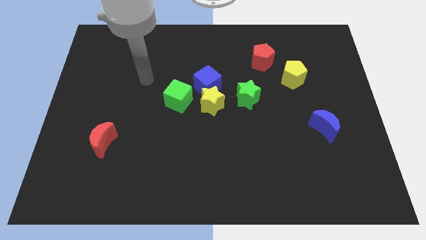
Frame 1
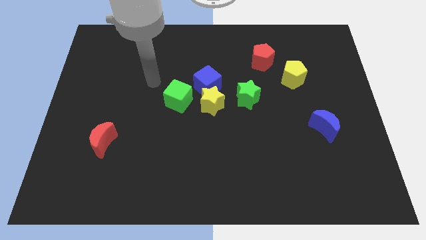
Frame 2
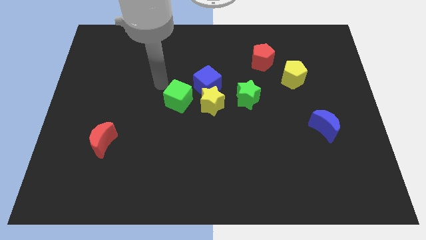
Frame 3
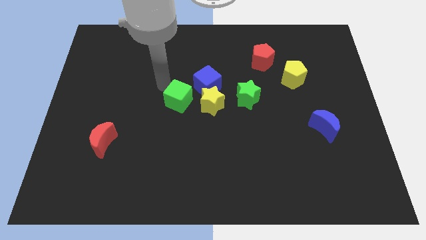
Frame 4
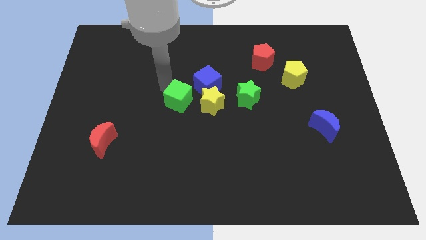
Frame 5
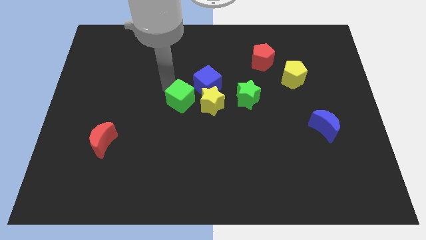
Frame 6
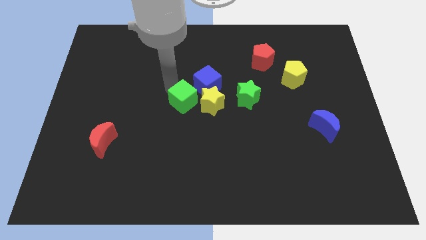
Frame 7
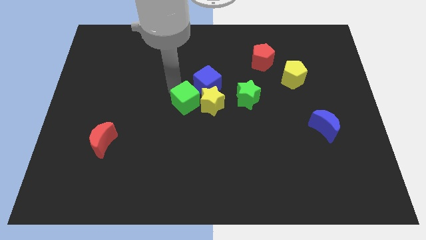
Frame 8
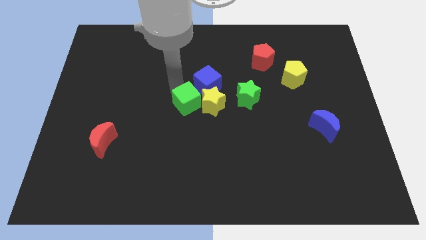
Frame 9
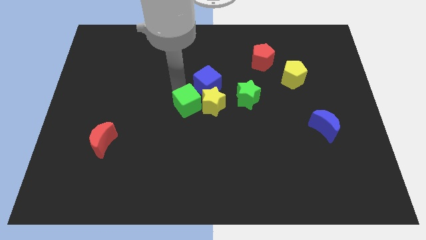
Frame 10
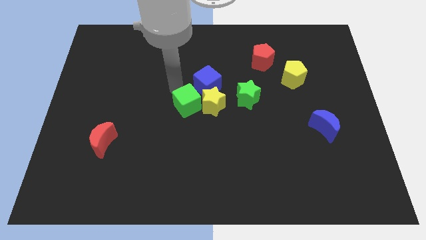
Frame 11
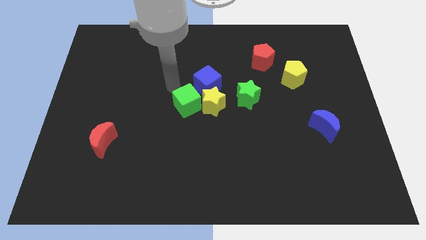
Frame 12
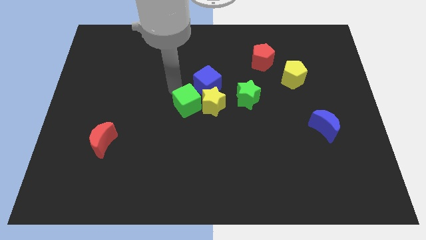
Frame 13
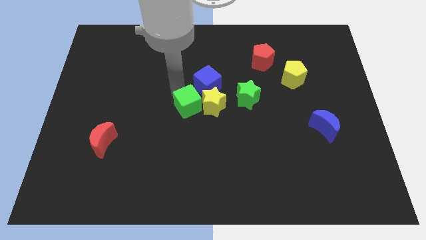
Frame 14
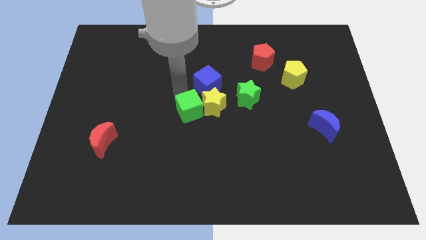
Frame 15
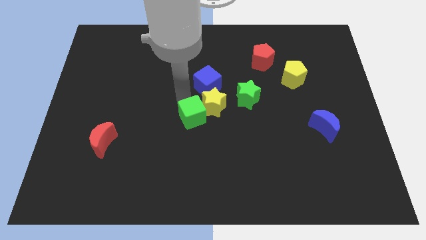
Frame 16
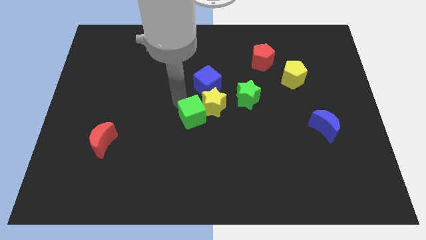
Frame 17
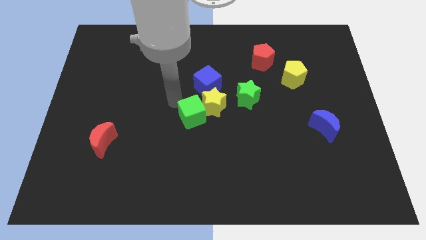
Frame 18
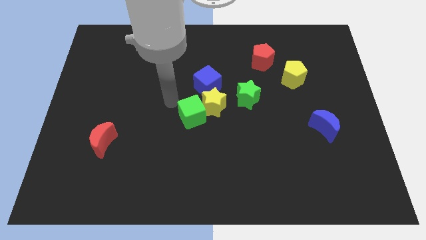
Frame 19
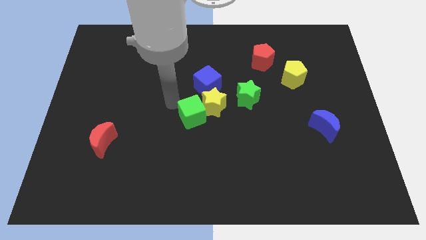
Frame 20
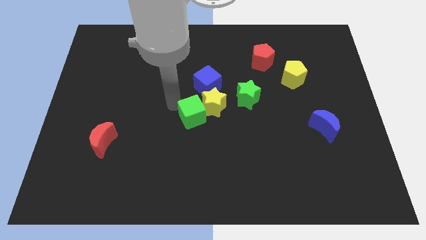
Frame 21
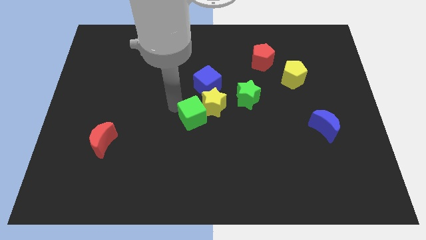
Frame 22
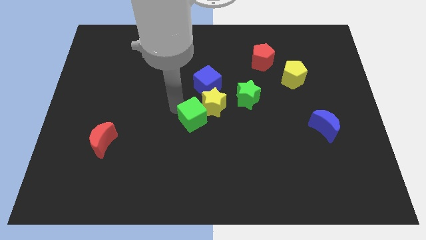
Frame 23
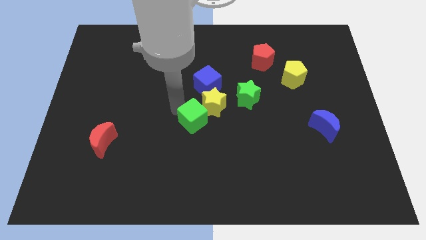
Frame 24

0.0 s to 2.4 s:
slightly move the green cube down and then right

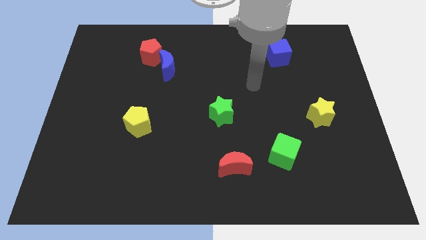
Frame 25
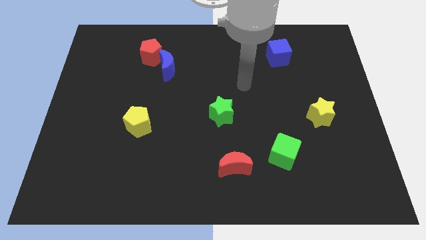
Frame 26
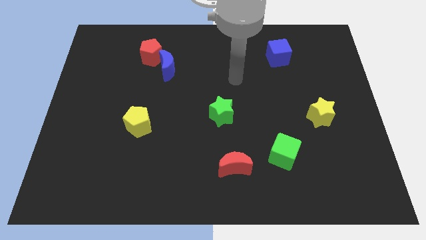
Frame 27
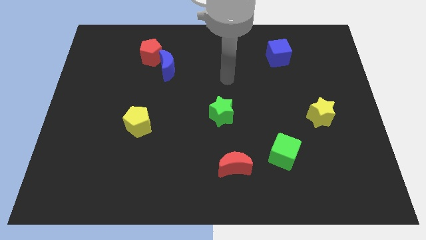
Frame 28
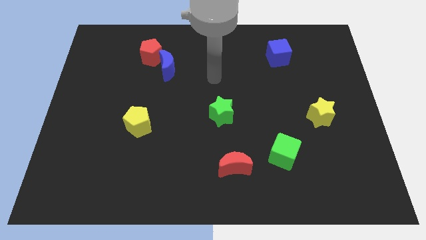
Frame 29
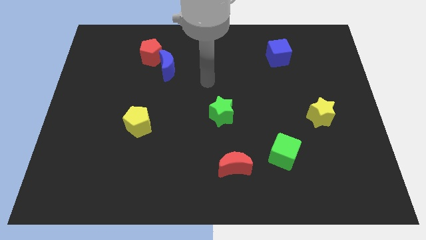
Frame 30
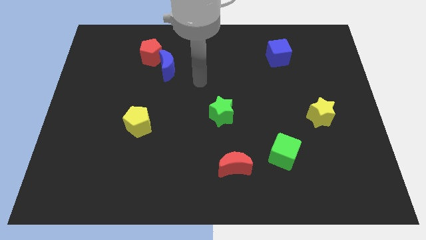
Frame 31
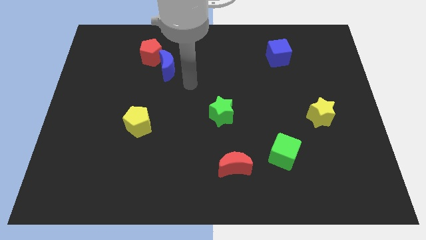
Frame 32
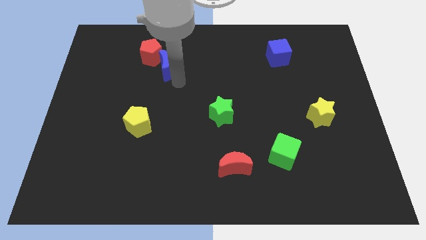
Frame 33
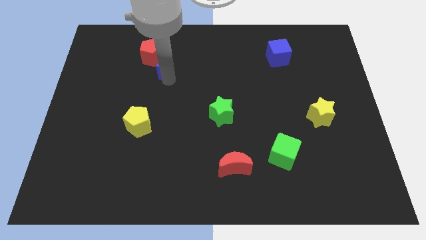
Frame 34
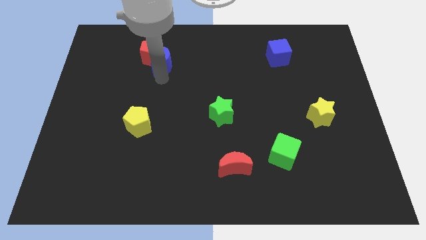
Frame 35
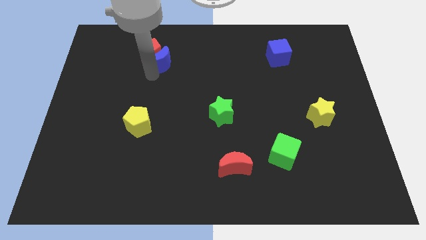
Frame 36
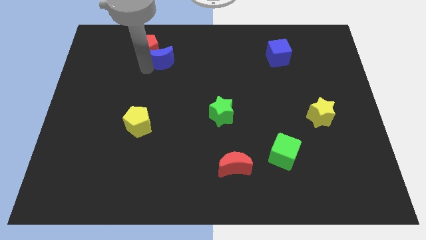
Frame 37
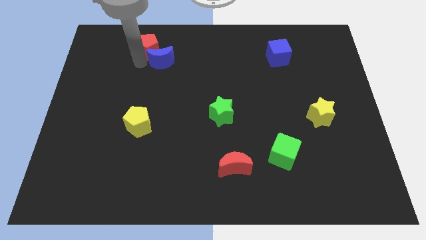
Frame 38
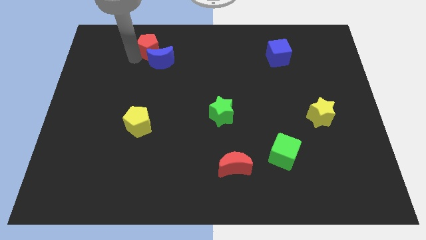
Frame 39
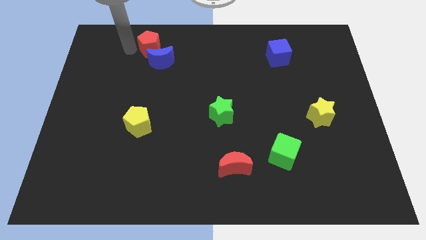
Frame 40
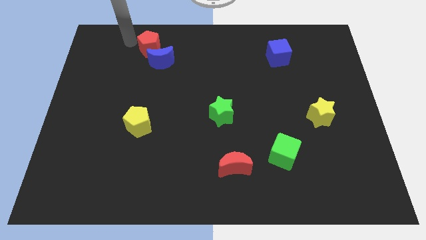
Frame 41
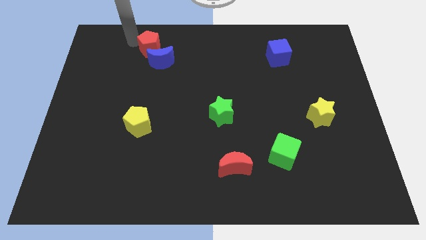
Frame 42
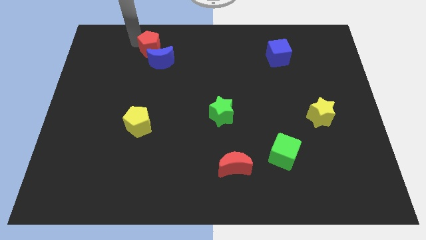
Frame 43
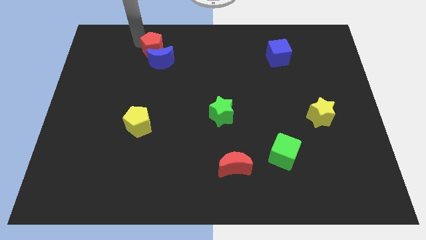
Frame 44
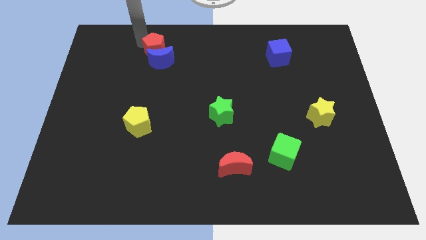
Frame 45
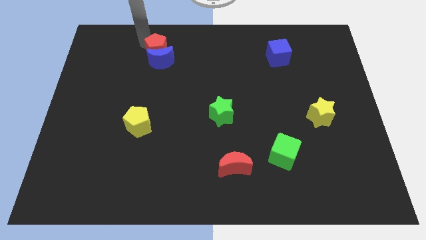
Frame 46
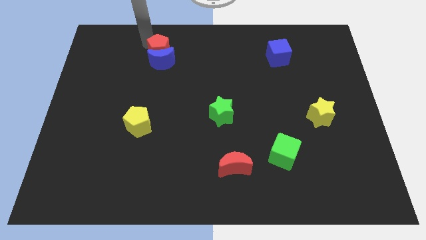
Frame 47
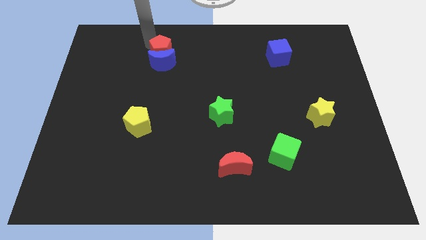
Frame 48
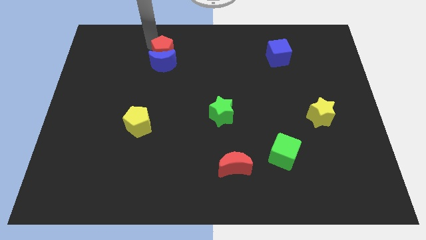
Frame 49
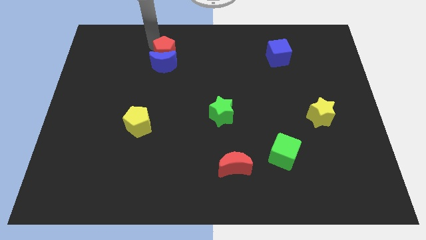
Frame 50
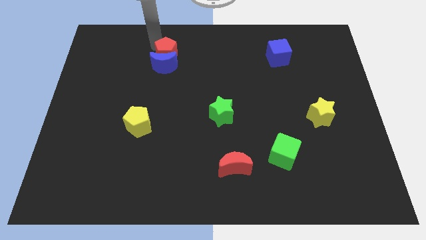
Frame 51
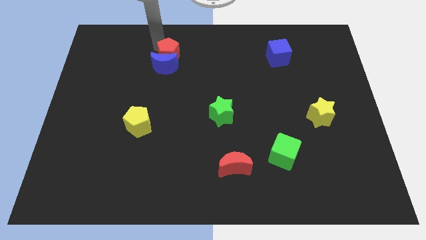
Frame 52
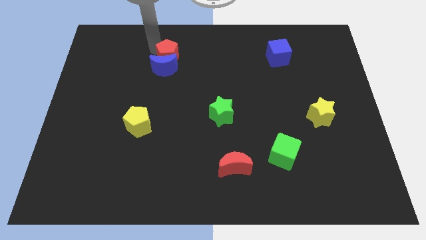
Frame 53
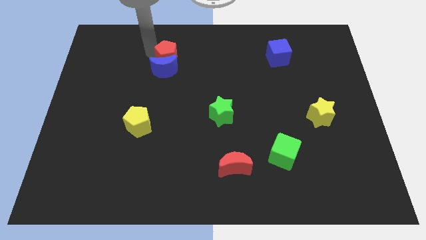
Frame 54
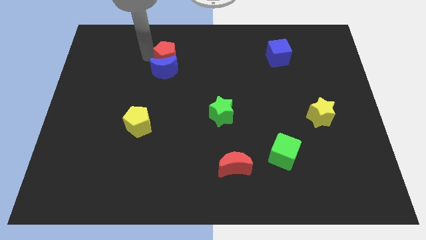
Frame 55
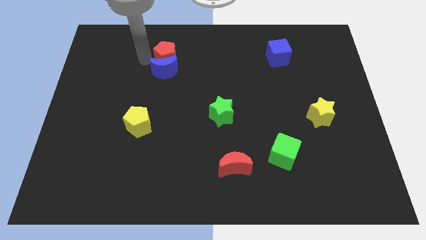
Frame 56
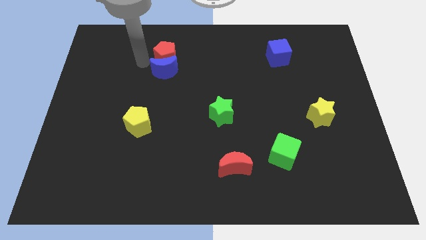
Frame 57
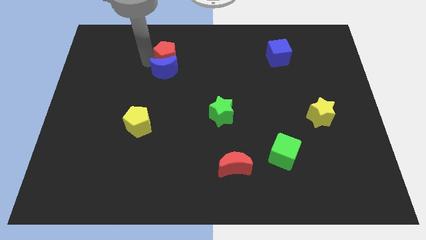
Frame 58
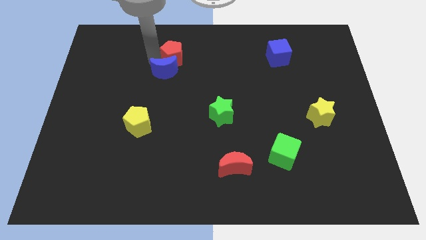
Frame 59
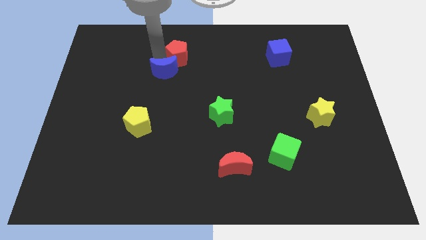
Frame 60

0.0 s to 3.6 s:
push the red pentagon somewhat right

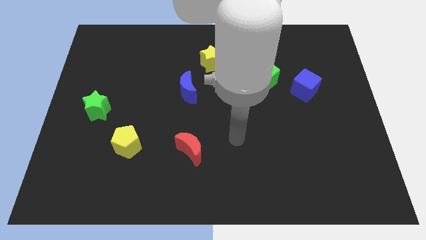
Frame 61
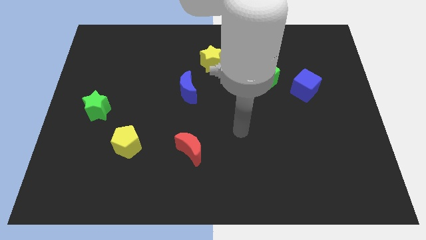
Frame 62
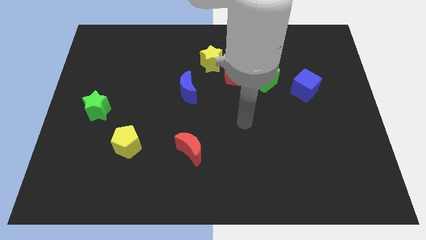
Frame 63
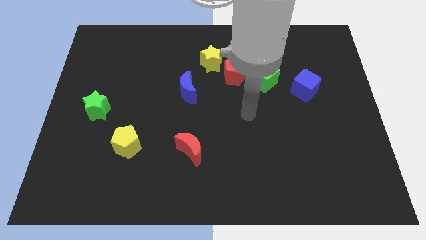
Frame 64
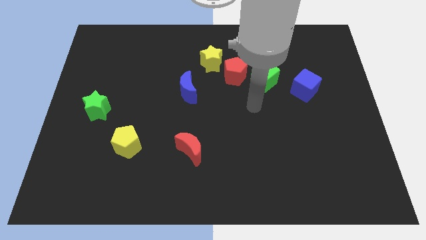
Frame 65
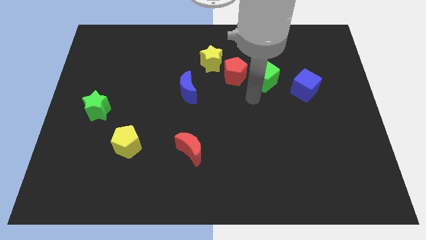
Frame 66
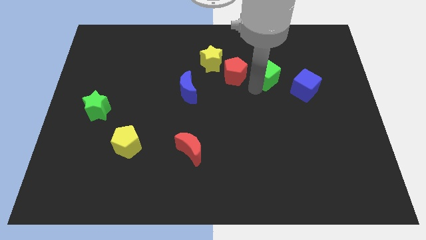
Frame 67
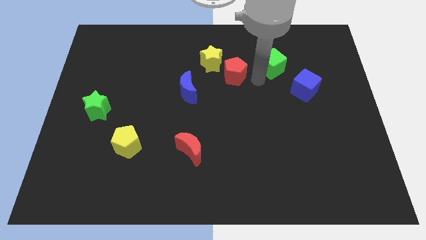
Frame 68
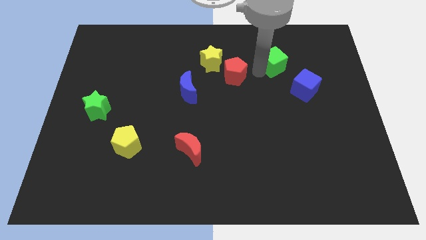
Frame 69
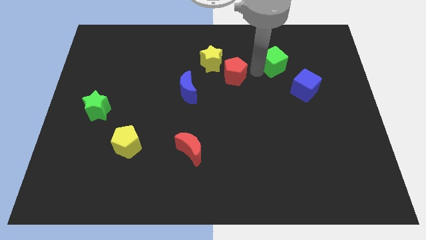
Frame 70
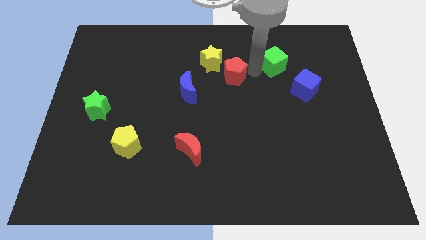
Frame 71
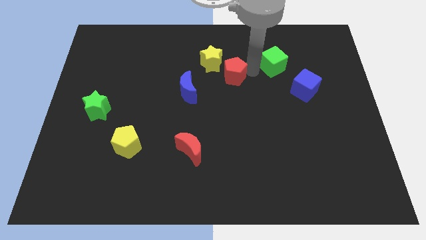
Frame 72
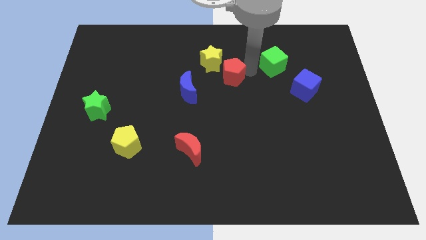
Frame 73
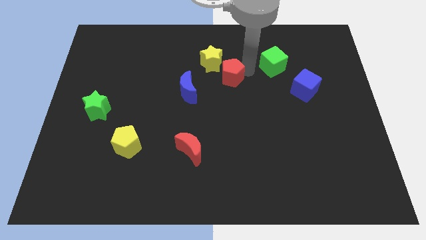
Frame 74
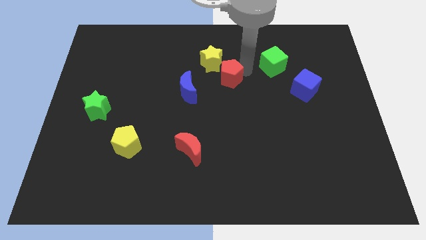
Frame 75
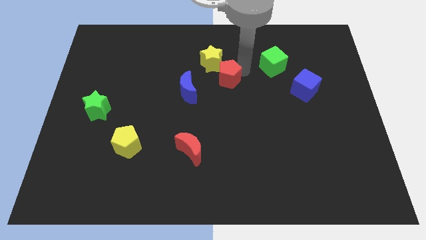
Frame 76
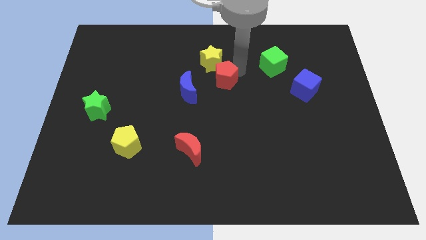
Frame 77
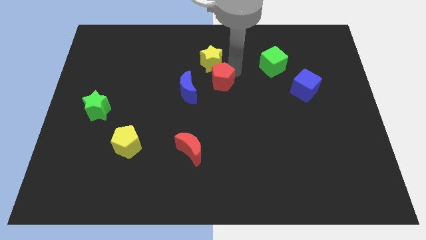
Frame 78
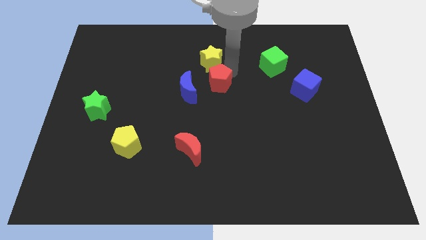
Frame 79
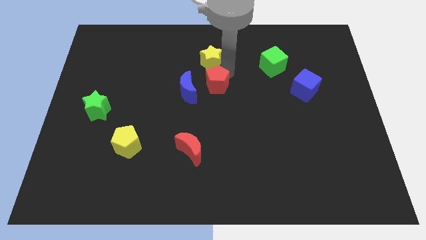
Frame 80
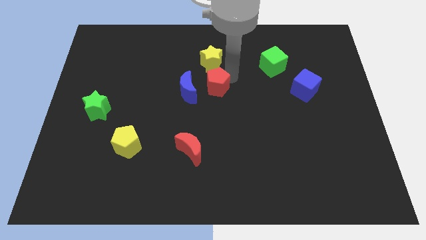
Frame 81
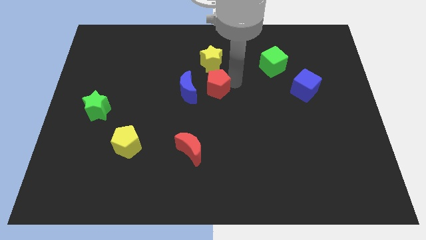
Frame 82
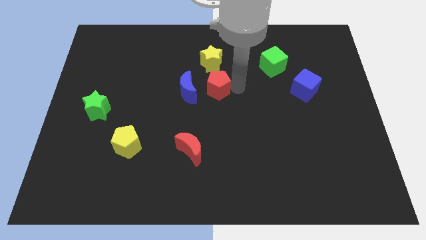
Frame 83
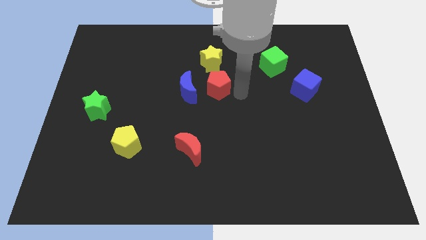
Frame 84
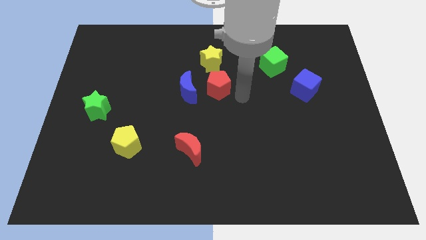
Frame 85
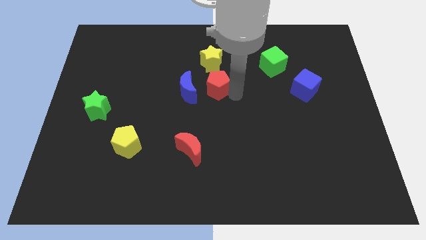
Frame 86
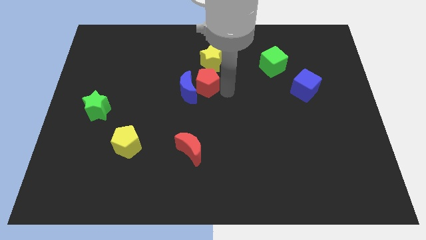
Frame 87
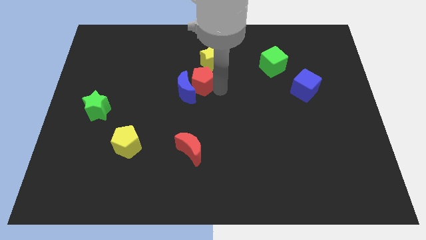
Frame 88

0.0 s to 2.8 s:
slide the red pentagon to the left a bit
